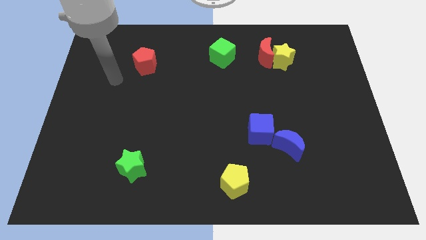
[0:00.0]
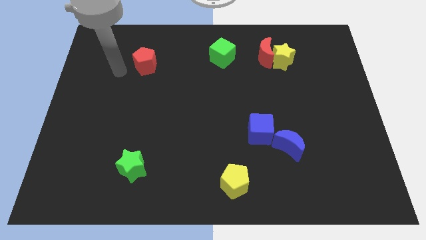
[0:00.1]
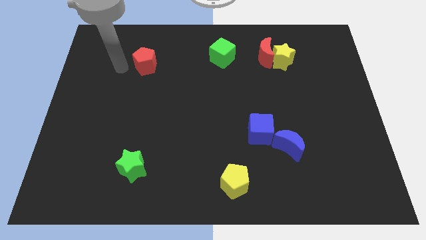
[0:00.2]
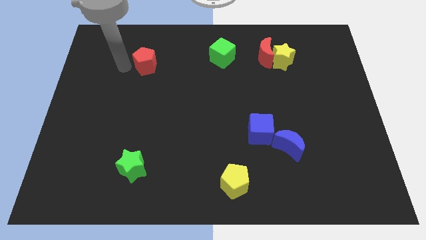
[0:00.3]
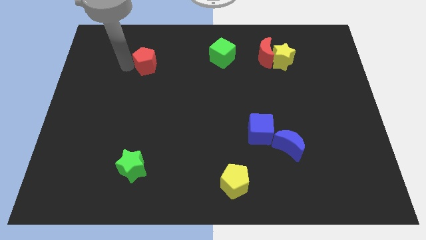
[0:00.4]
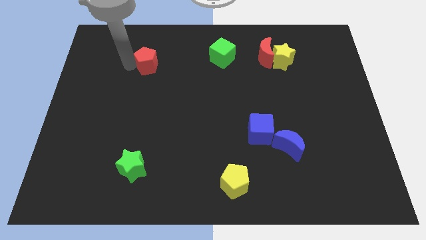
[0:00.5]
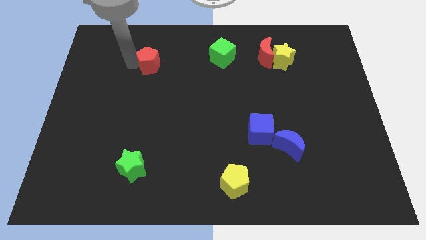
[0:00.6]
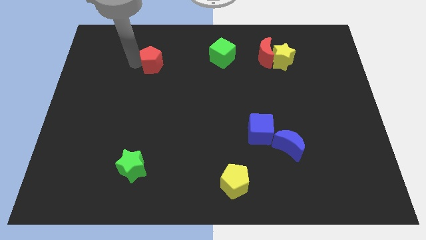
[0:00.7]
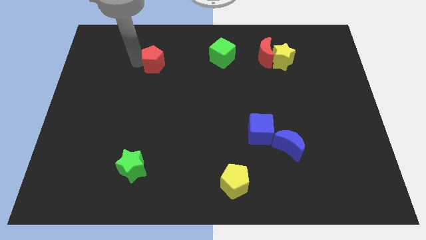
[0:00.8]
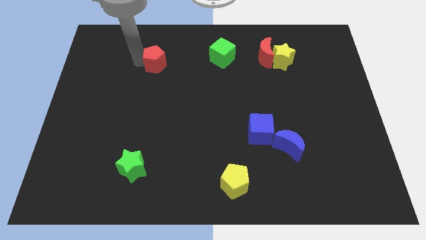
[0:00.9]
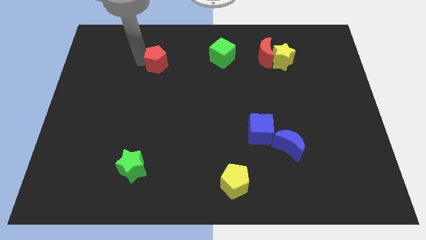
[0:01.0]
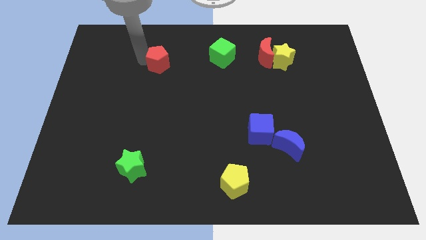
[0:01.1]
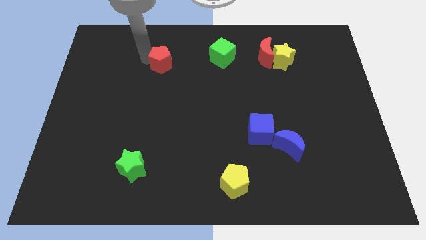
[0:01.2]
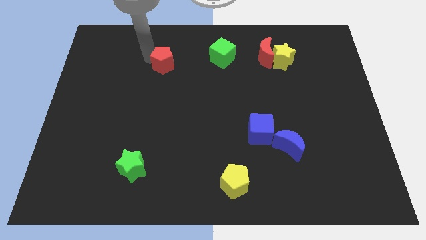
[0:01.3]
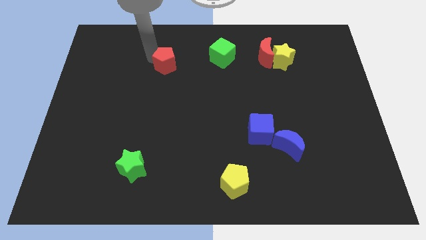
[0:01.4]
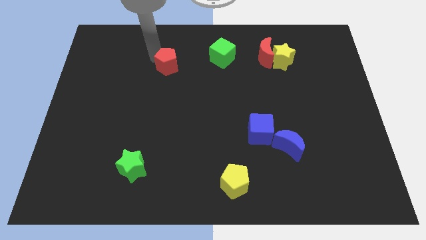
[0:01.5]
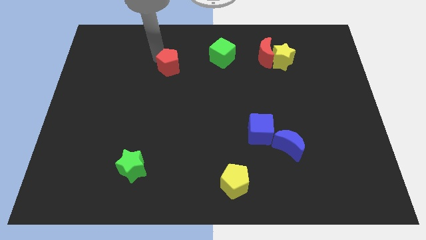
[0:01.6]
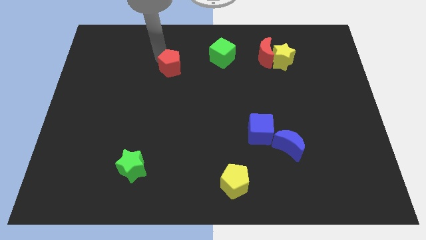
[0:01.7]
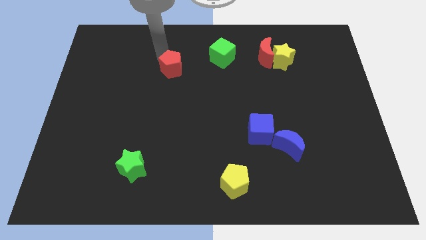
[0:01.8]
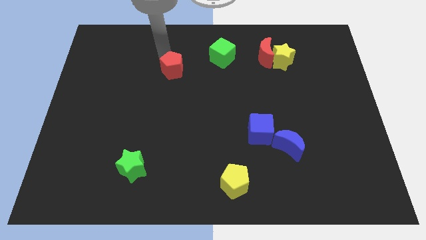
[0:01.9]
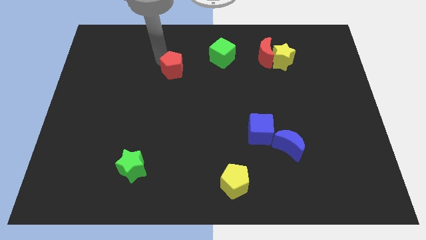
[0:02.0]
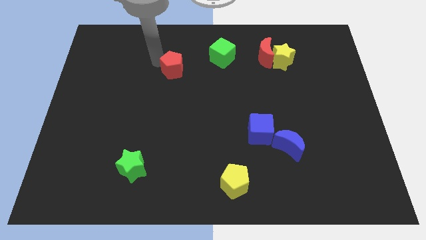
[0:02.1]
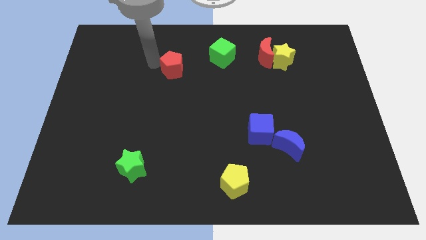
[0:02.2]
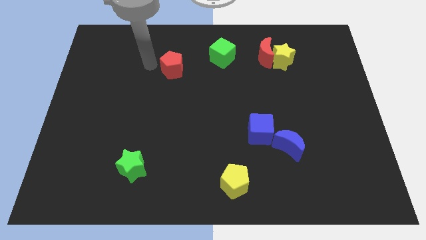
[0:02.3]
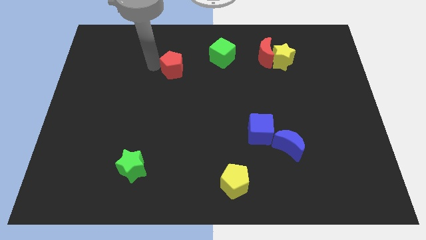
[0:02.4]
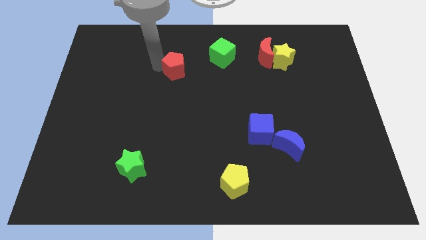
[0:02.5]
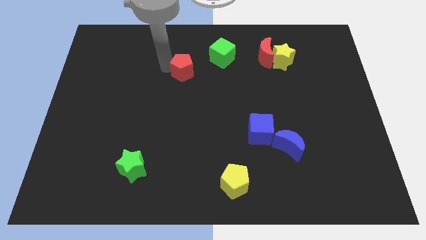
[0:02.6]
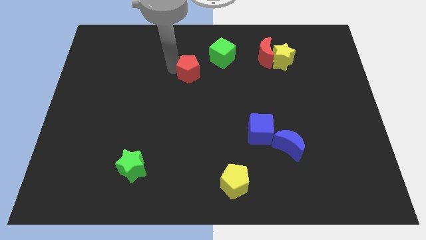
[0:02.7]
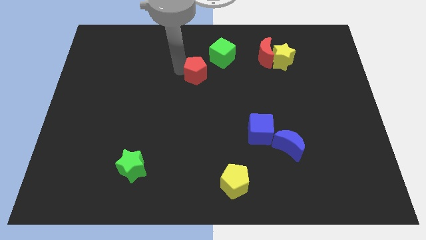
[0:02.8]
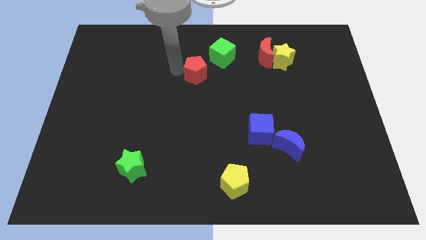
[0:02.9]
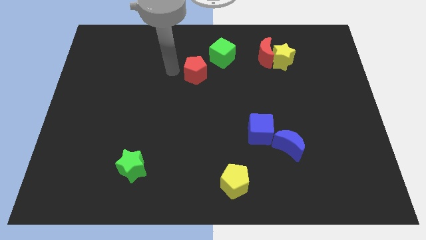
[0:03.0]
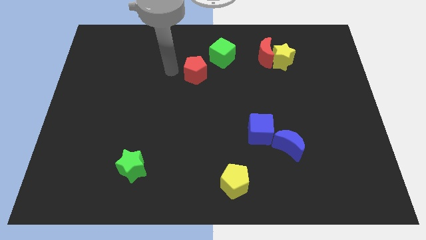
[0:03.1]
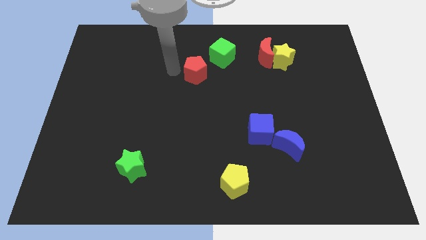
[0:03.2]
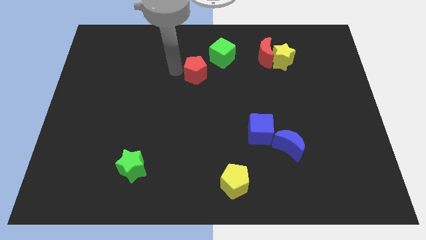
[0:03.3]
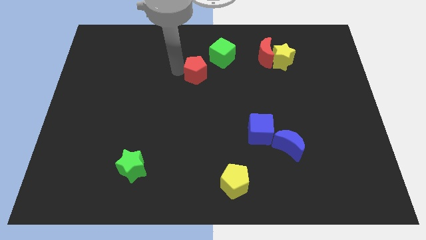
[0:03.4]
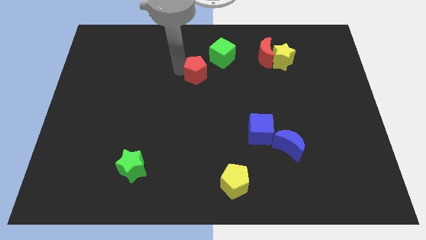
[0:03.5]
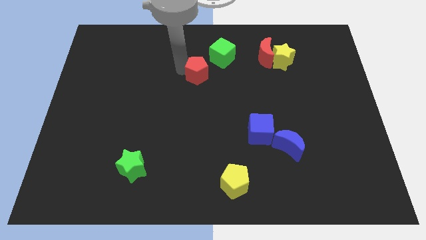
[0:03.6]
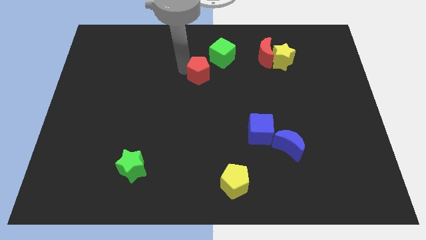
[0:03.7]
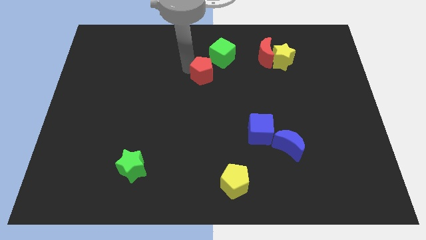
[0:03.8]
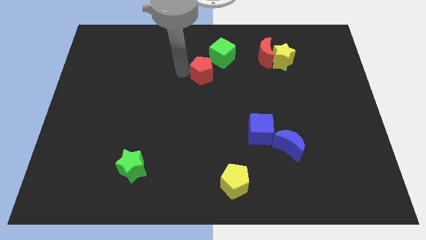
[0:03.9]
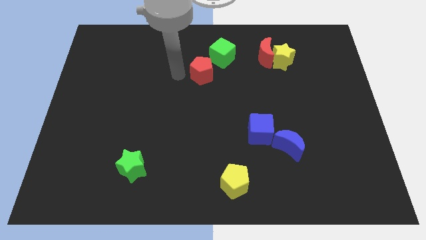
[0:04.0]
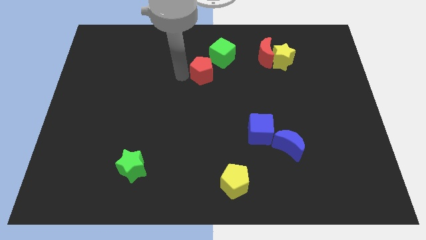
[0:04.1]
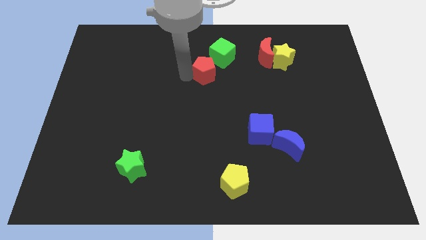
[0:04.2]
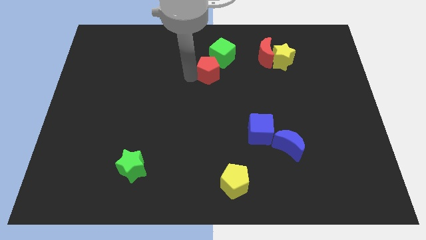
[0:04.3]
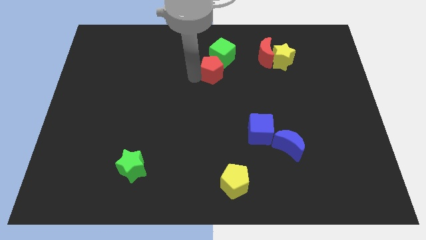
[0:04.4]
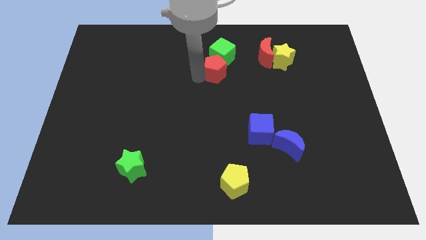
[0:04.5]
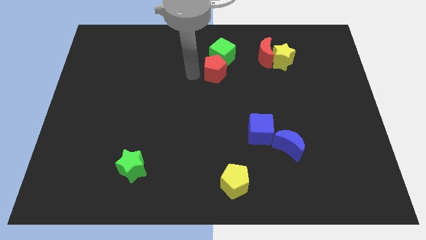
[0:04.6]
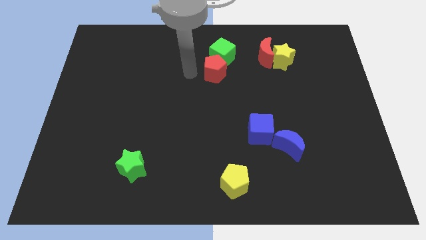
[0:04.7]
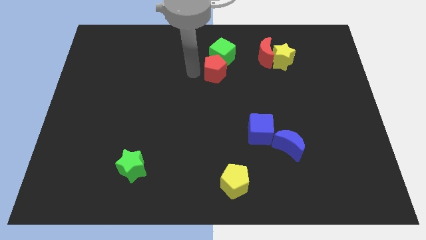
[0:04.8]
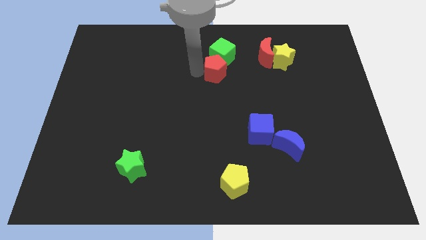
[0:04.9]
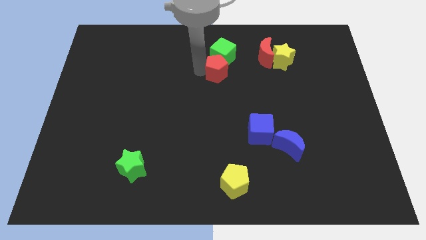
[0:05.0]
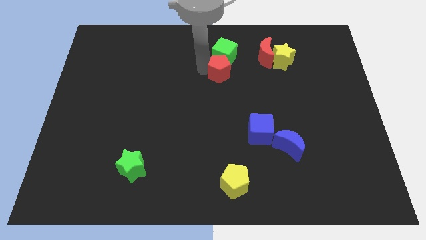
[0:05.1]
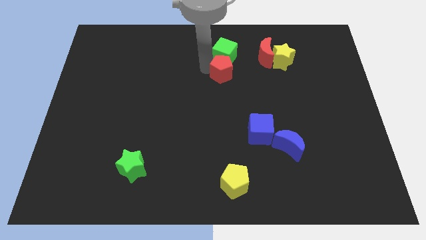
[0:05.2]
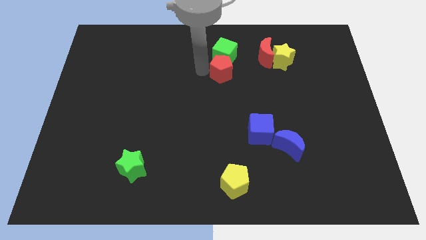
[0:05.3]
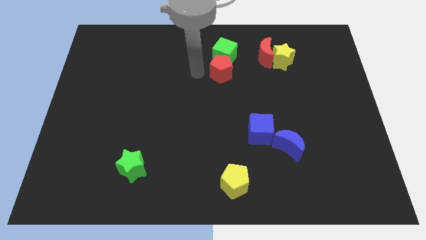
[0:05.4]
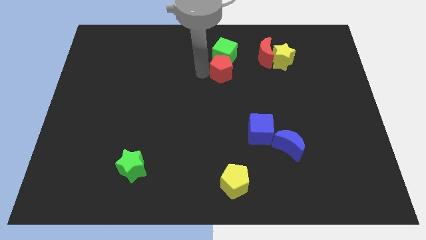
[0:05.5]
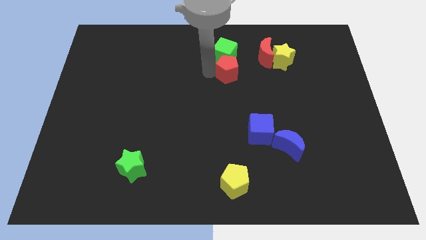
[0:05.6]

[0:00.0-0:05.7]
slide the red pentagon to the bottom left of the red moon

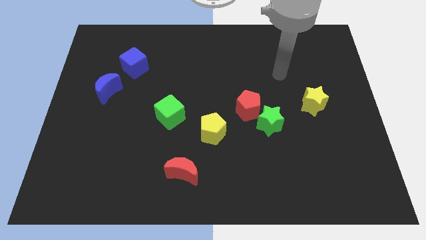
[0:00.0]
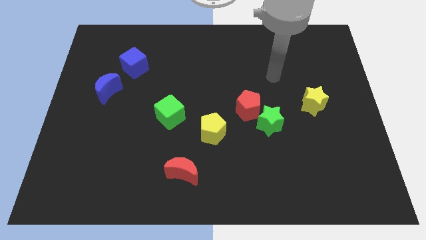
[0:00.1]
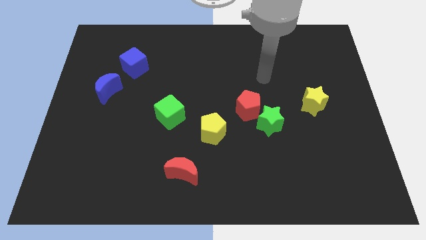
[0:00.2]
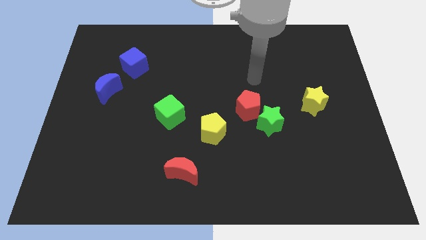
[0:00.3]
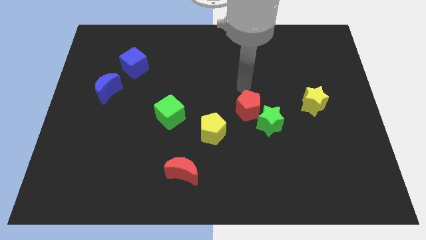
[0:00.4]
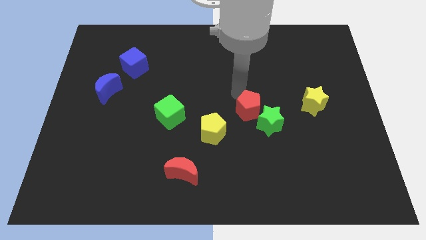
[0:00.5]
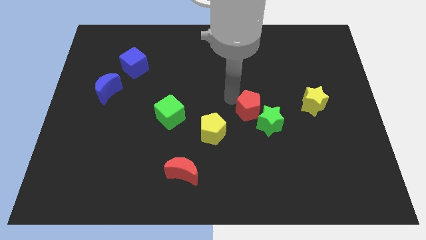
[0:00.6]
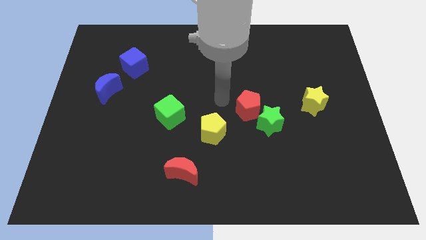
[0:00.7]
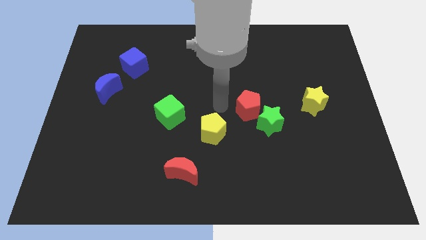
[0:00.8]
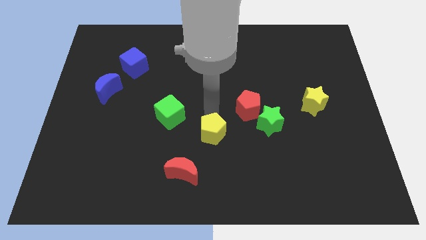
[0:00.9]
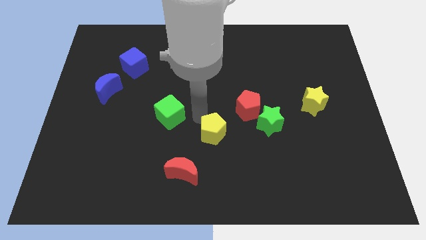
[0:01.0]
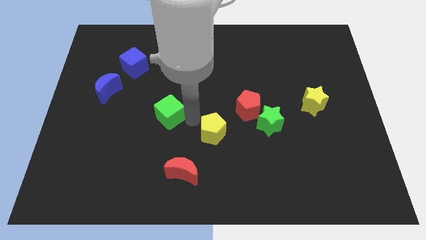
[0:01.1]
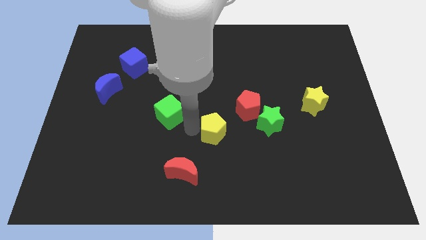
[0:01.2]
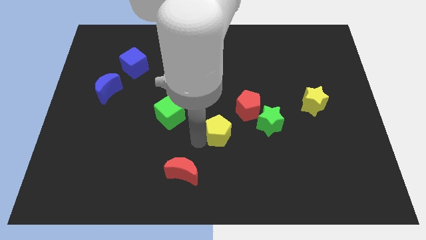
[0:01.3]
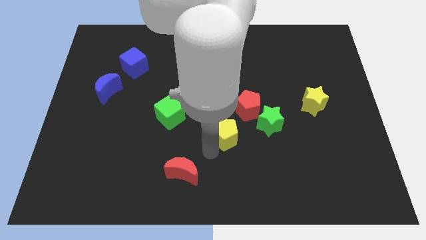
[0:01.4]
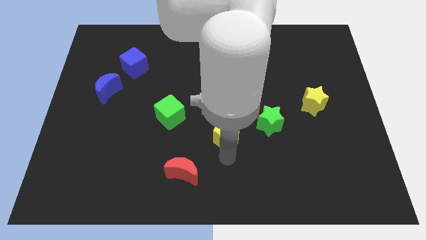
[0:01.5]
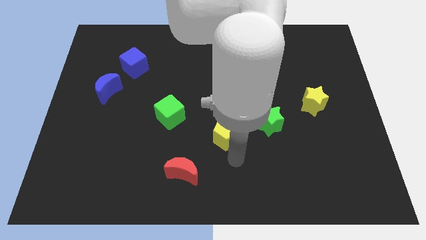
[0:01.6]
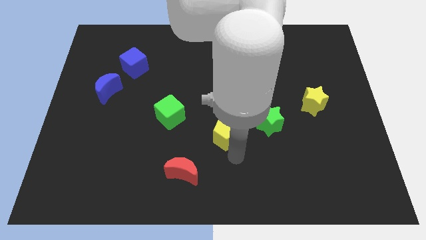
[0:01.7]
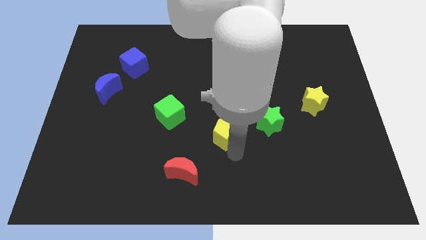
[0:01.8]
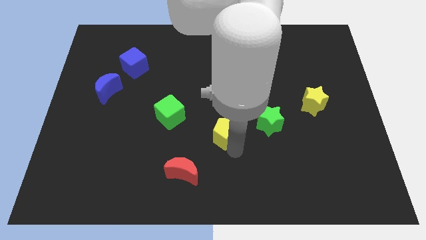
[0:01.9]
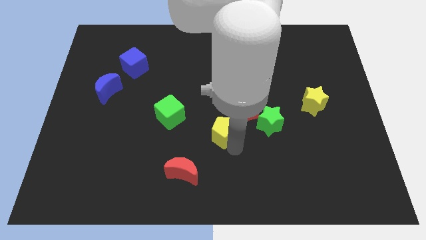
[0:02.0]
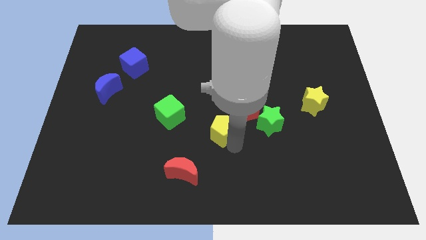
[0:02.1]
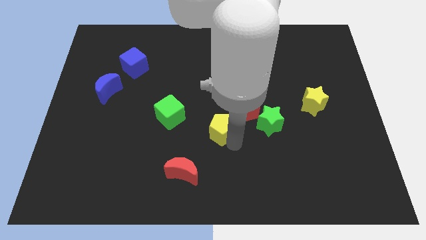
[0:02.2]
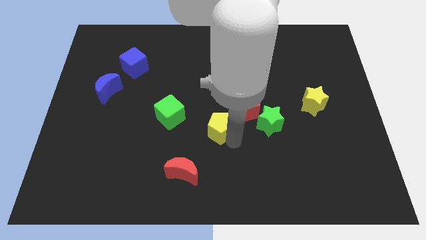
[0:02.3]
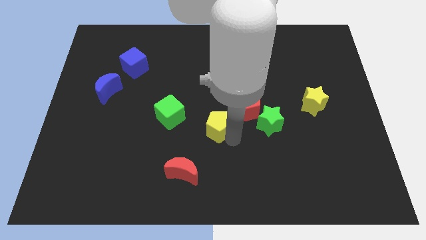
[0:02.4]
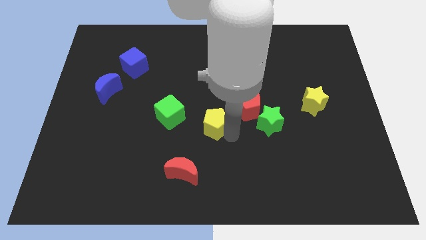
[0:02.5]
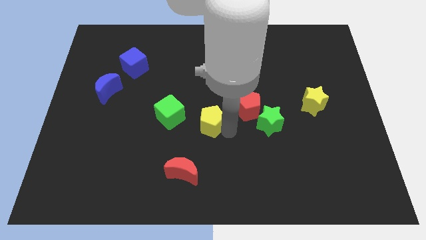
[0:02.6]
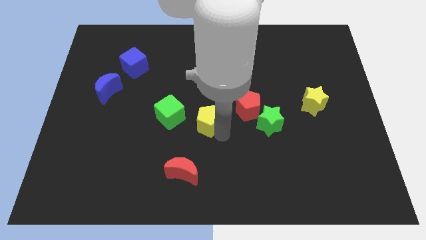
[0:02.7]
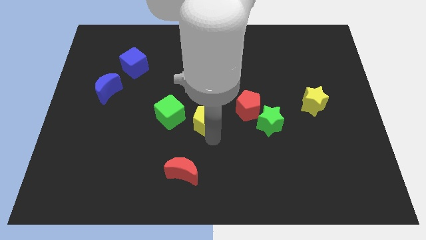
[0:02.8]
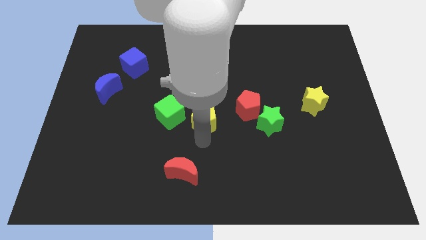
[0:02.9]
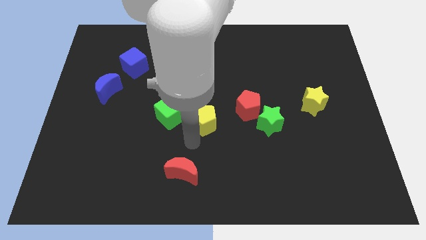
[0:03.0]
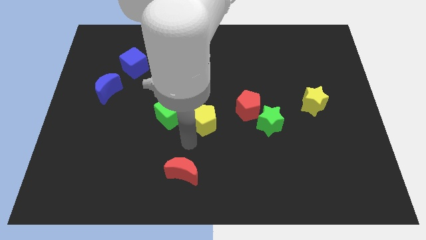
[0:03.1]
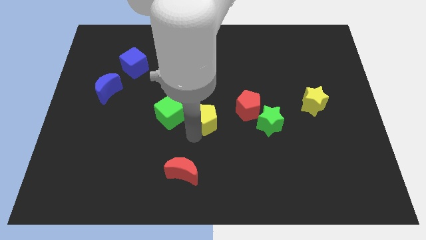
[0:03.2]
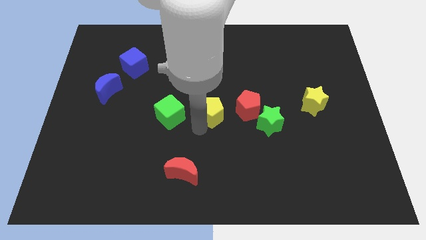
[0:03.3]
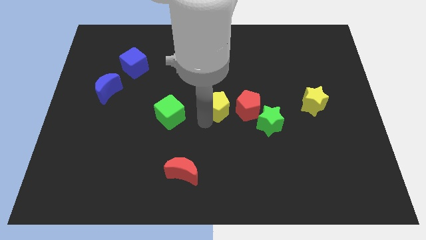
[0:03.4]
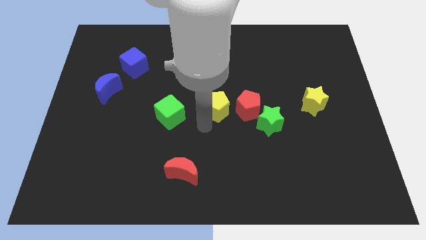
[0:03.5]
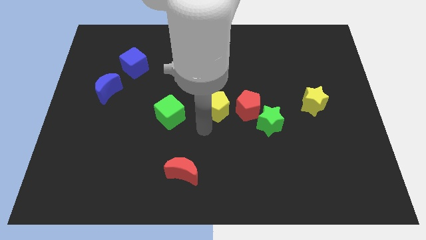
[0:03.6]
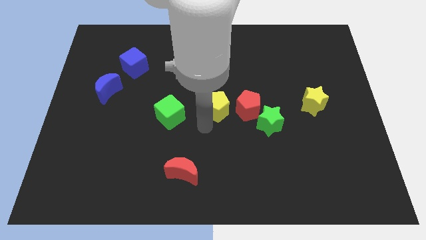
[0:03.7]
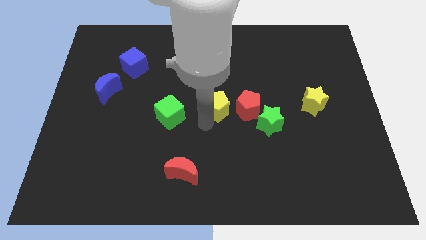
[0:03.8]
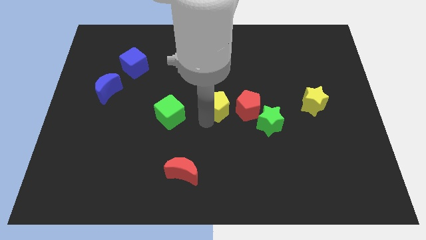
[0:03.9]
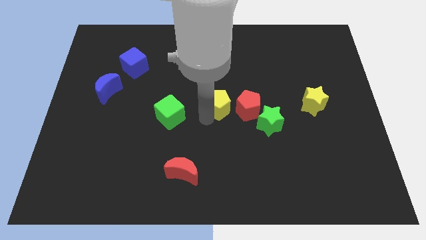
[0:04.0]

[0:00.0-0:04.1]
slide the yellow pentagon to the top left of the red pentagon
